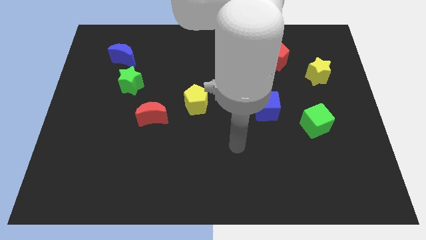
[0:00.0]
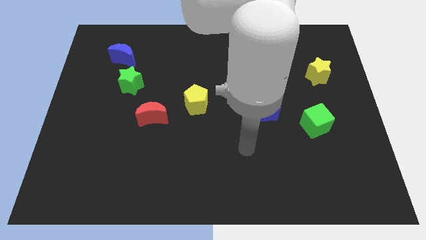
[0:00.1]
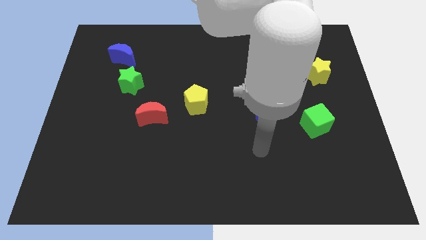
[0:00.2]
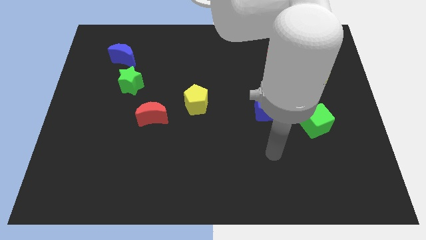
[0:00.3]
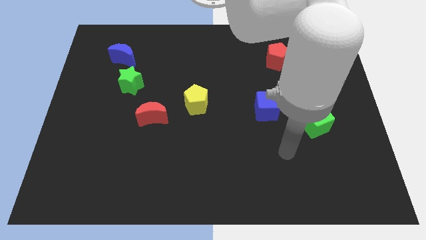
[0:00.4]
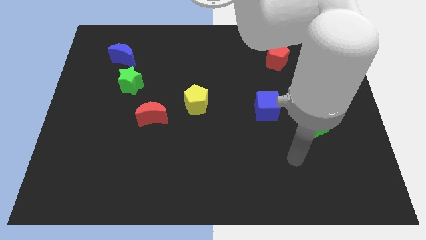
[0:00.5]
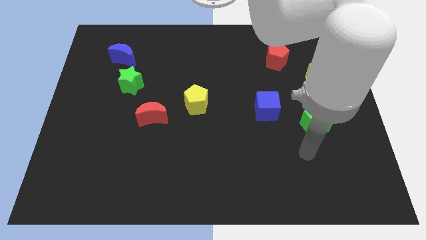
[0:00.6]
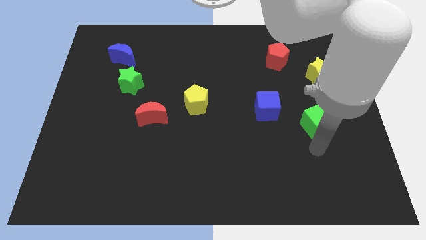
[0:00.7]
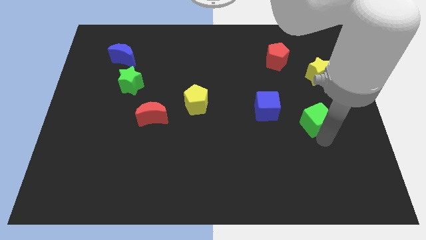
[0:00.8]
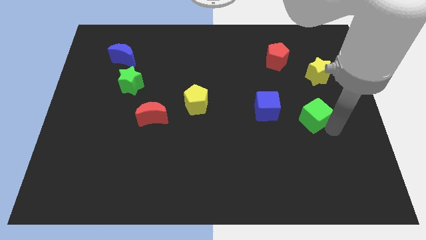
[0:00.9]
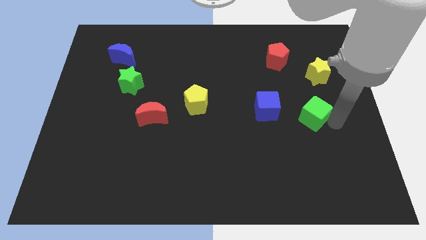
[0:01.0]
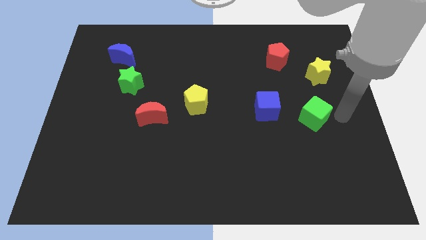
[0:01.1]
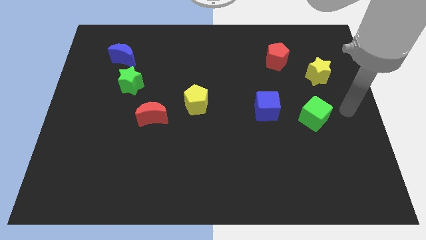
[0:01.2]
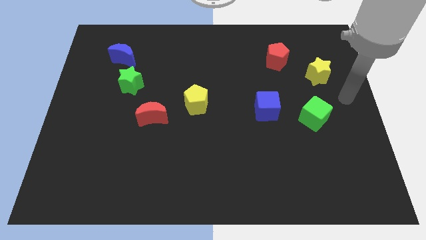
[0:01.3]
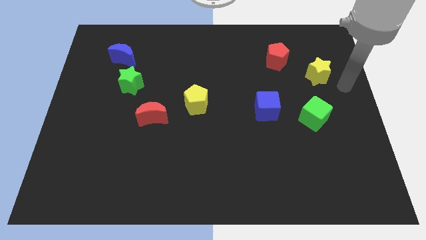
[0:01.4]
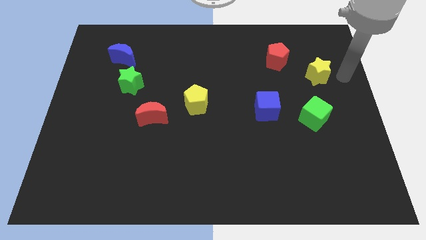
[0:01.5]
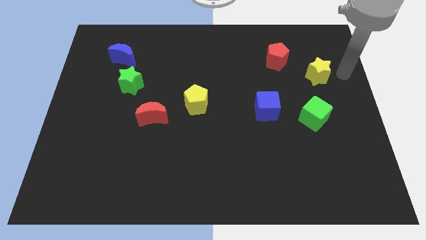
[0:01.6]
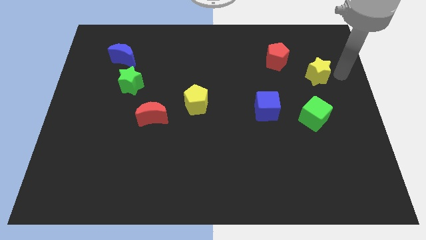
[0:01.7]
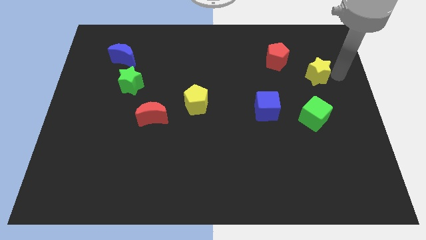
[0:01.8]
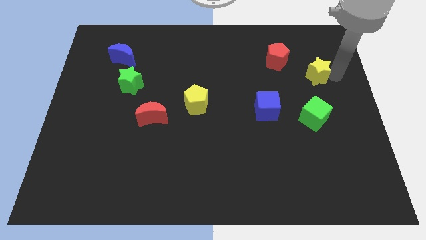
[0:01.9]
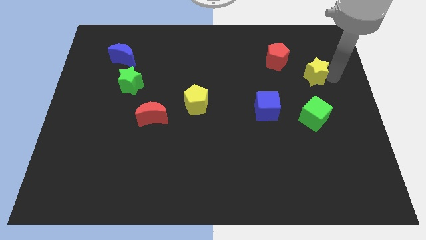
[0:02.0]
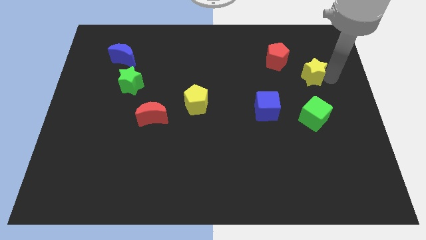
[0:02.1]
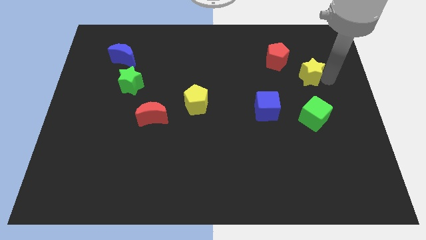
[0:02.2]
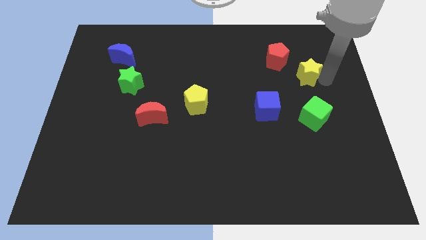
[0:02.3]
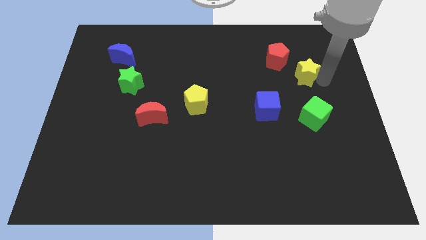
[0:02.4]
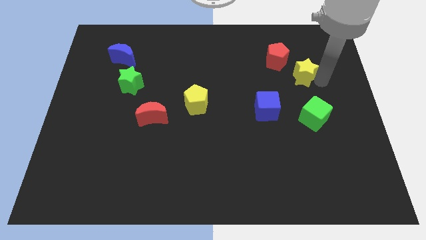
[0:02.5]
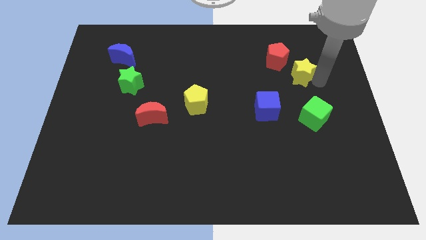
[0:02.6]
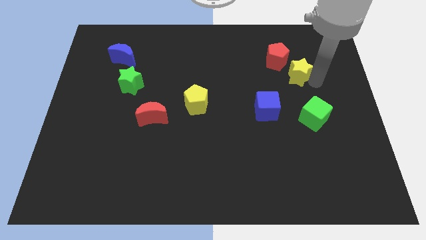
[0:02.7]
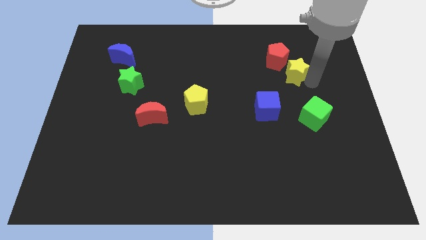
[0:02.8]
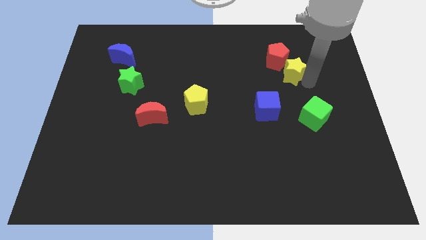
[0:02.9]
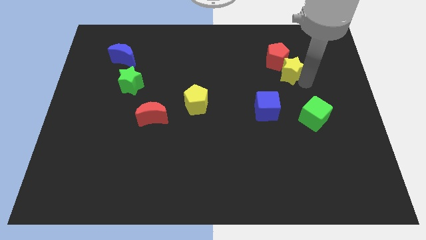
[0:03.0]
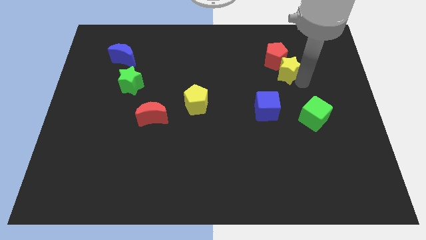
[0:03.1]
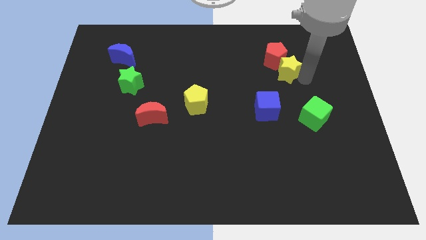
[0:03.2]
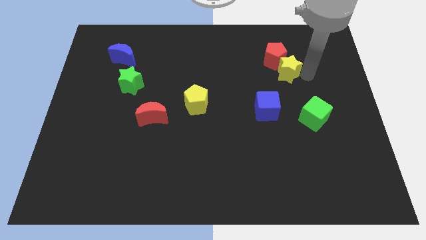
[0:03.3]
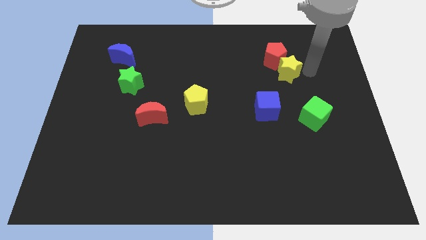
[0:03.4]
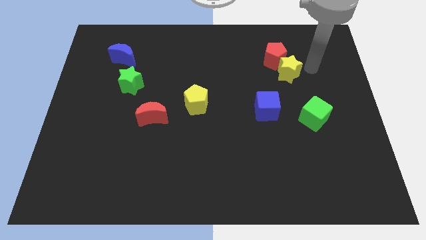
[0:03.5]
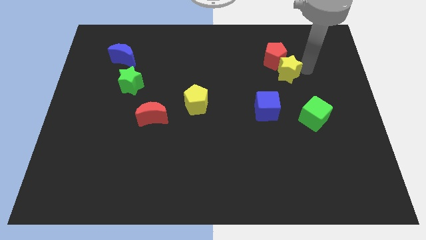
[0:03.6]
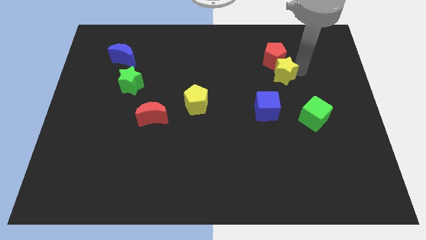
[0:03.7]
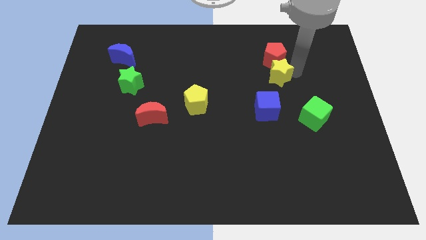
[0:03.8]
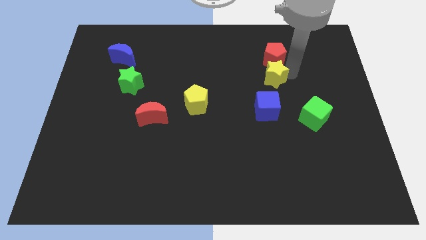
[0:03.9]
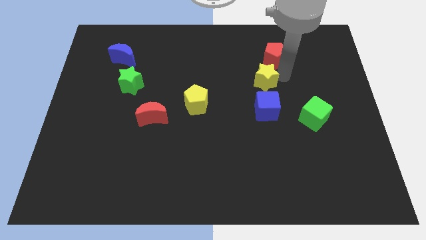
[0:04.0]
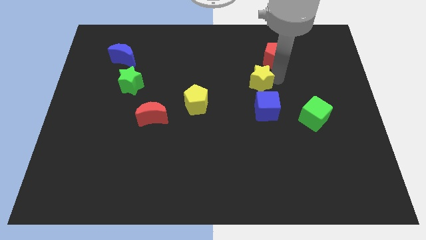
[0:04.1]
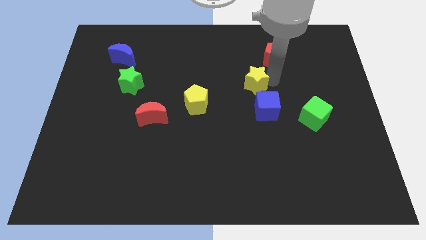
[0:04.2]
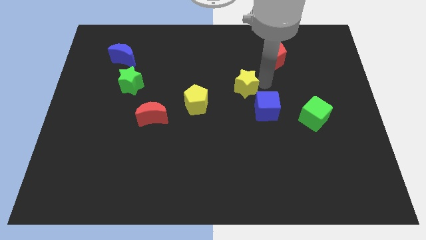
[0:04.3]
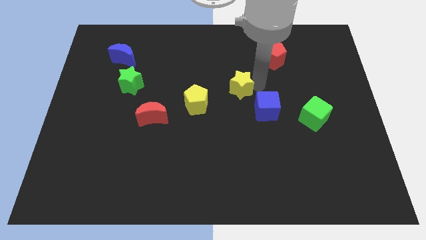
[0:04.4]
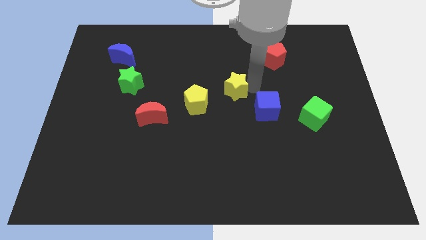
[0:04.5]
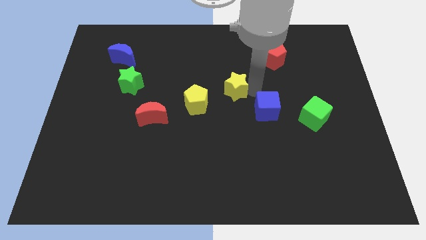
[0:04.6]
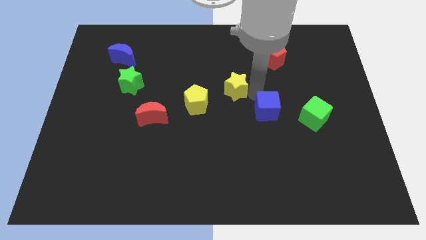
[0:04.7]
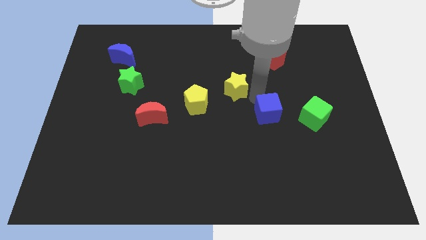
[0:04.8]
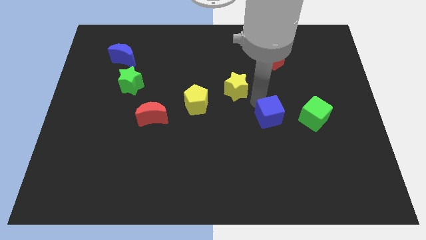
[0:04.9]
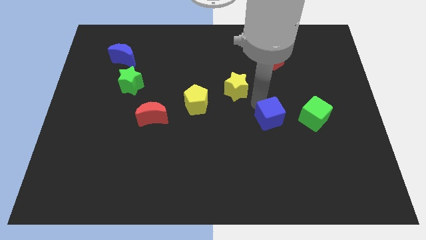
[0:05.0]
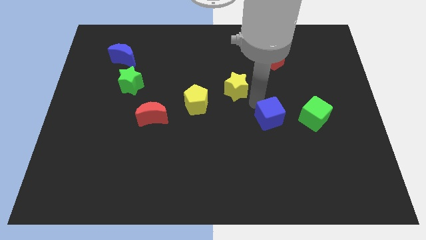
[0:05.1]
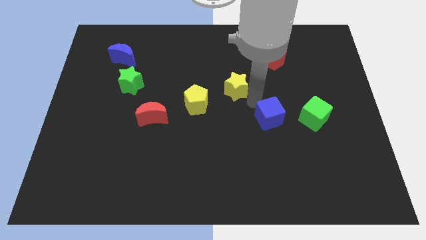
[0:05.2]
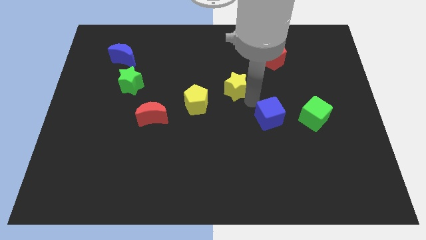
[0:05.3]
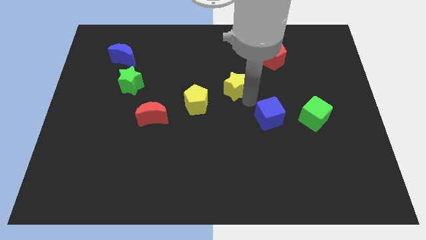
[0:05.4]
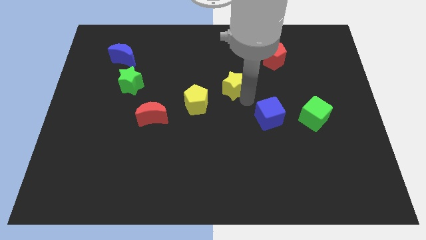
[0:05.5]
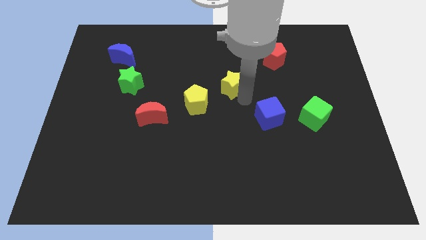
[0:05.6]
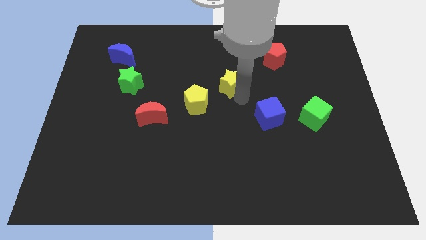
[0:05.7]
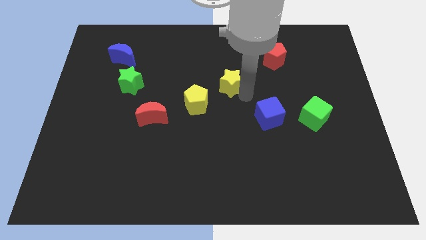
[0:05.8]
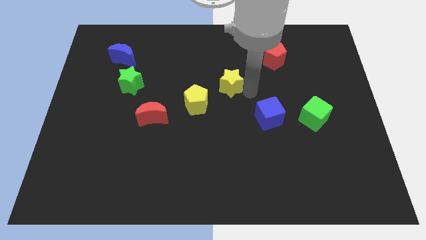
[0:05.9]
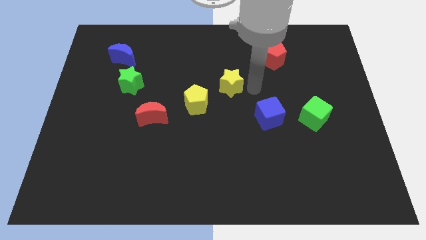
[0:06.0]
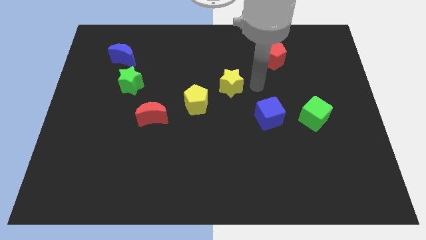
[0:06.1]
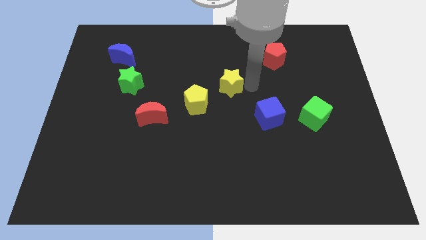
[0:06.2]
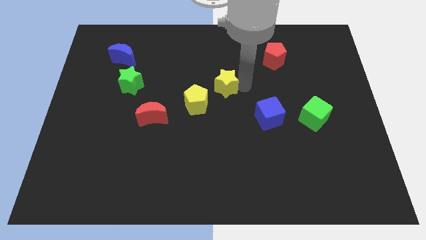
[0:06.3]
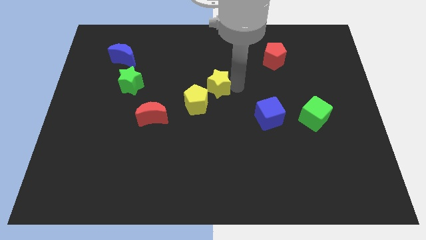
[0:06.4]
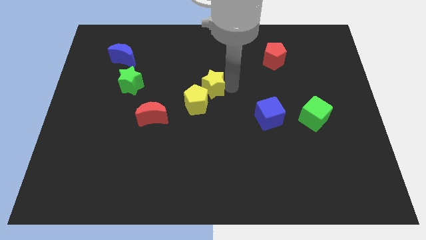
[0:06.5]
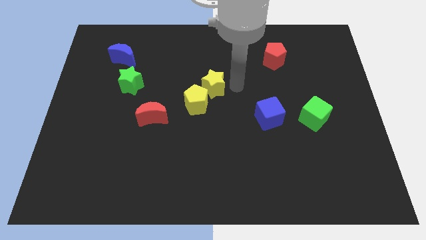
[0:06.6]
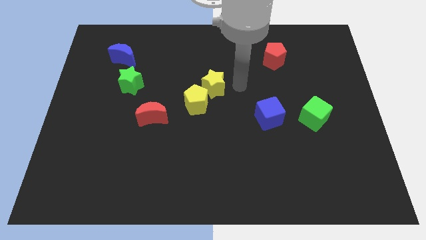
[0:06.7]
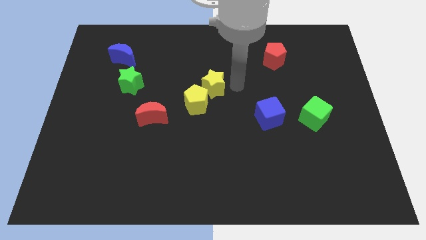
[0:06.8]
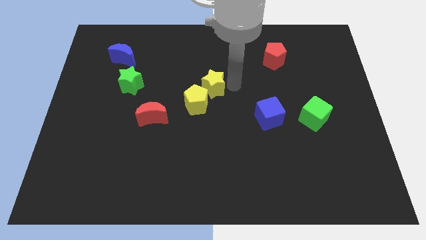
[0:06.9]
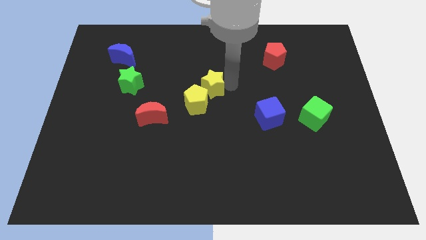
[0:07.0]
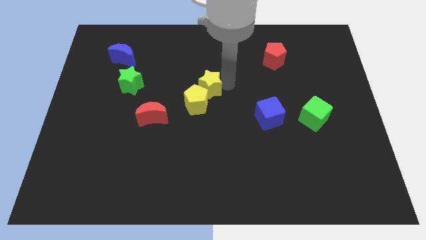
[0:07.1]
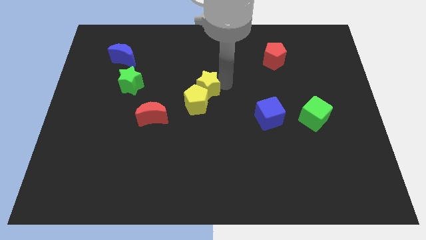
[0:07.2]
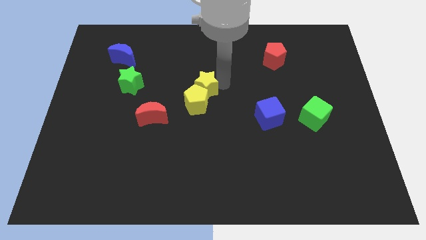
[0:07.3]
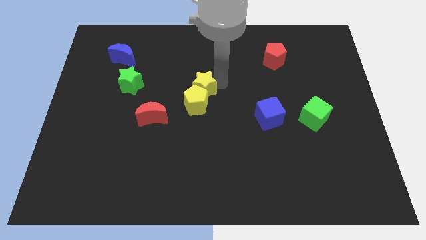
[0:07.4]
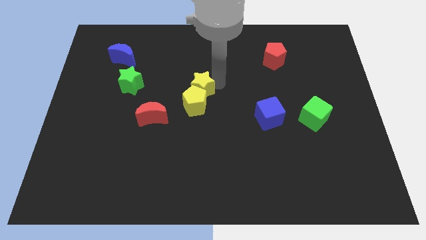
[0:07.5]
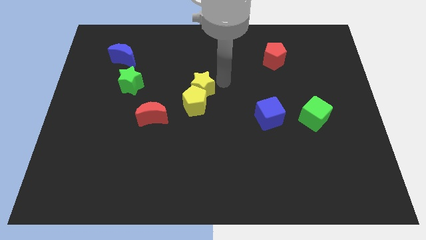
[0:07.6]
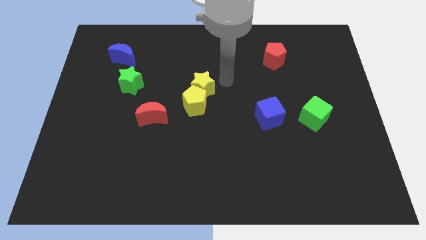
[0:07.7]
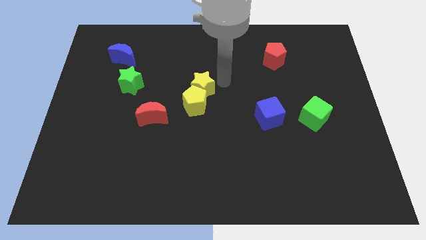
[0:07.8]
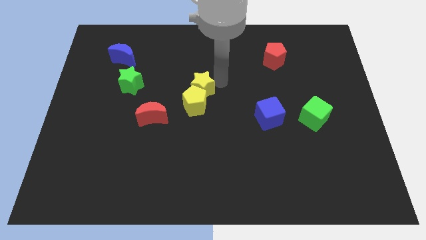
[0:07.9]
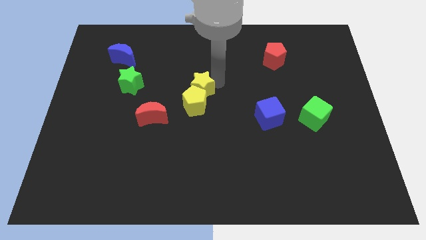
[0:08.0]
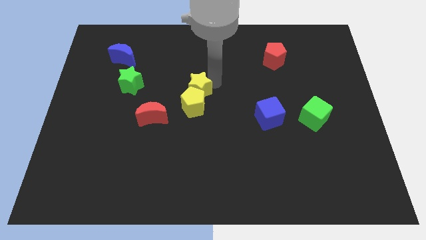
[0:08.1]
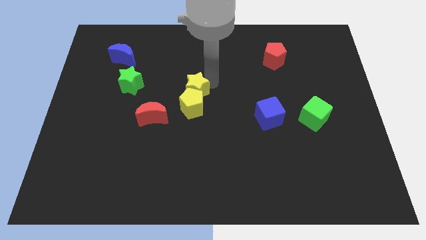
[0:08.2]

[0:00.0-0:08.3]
put the yellow star diagonally up and to the right of the red moon
